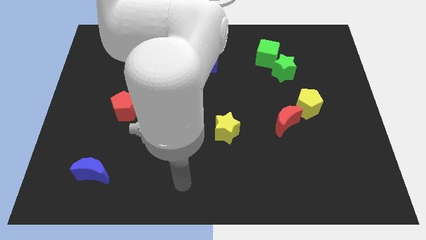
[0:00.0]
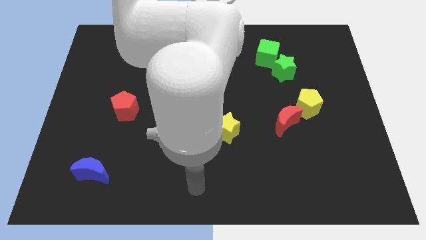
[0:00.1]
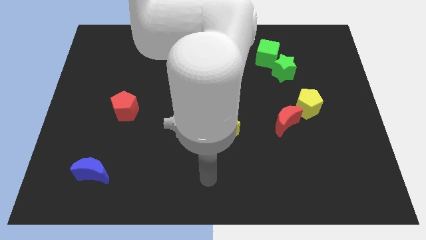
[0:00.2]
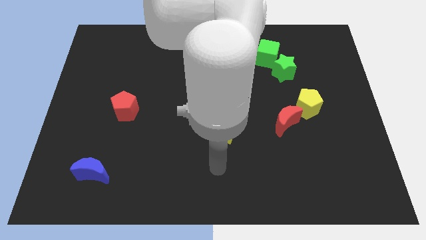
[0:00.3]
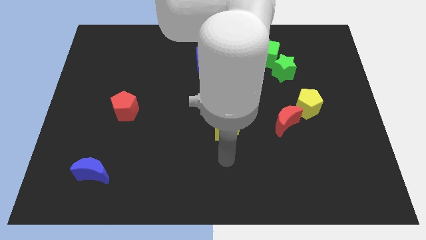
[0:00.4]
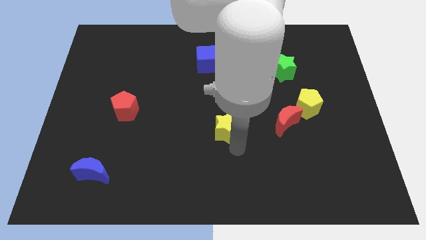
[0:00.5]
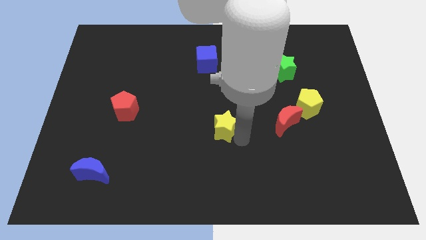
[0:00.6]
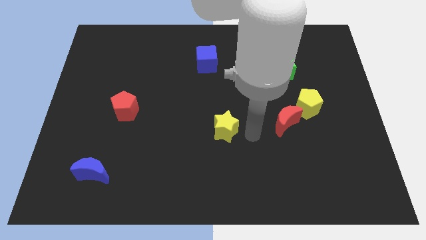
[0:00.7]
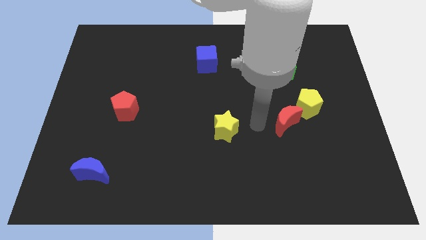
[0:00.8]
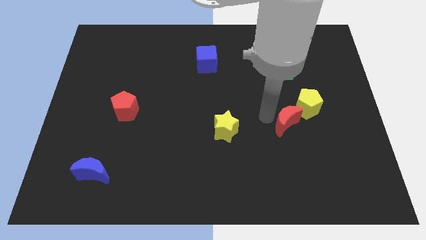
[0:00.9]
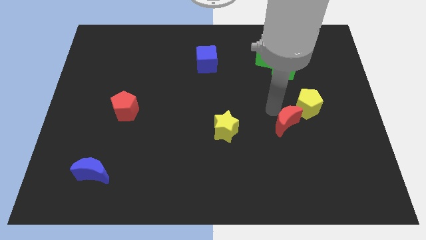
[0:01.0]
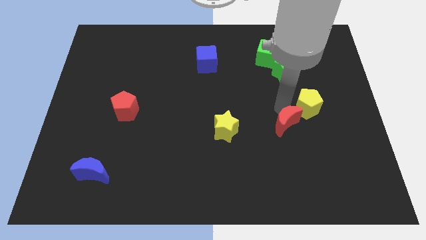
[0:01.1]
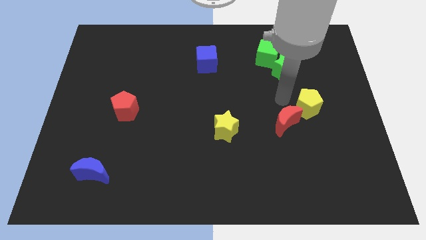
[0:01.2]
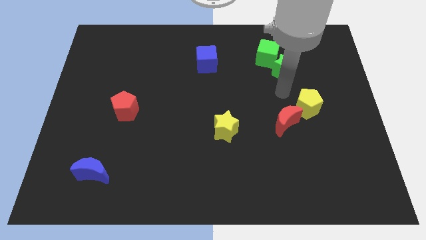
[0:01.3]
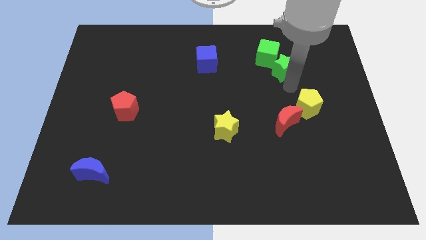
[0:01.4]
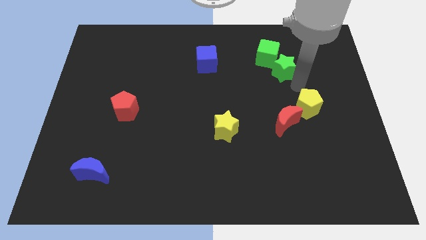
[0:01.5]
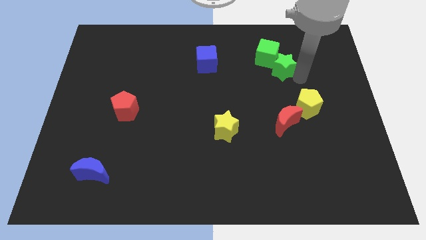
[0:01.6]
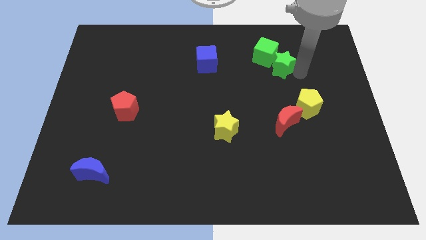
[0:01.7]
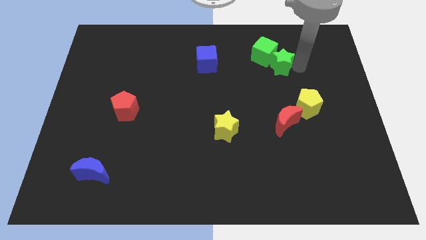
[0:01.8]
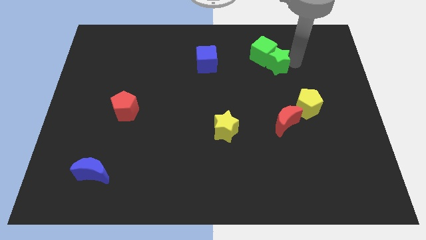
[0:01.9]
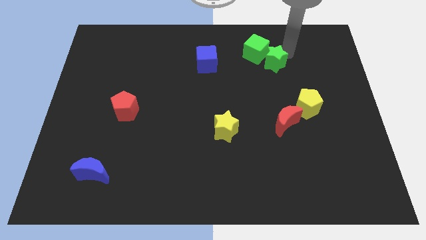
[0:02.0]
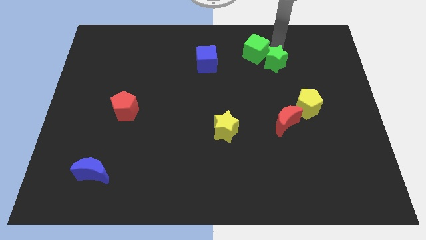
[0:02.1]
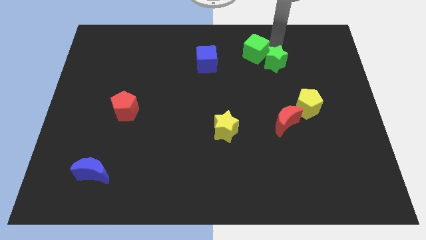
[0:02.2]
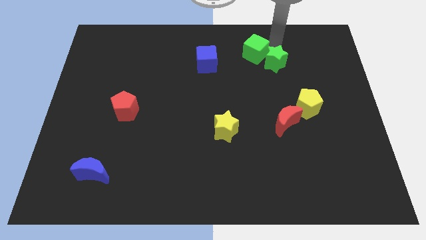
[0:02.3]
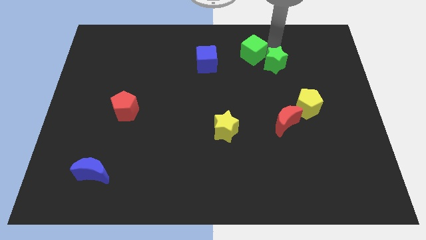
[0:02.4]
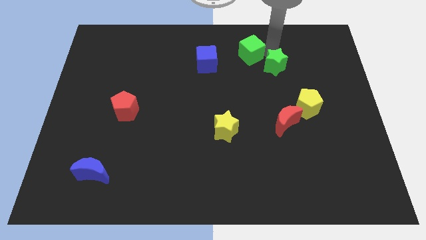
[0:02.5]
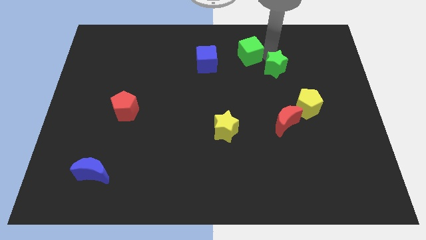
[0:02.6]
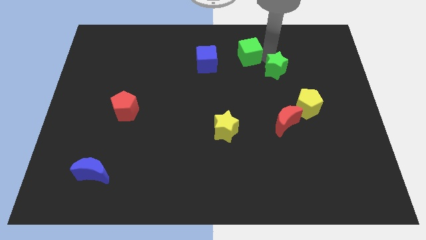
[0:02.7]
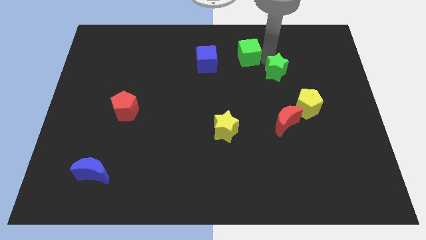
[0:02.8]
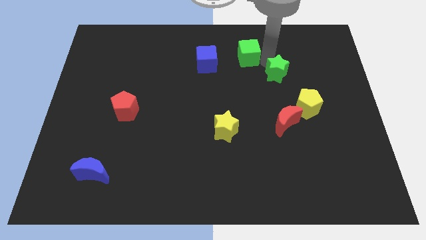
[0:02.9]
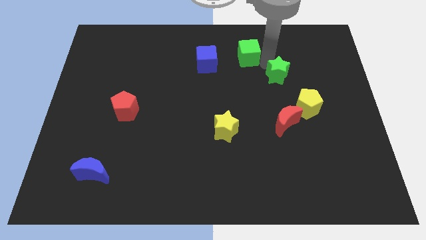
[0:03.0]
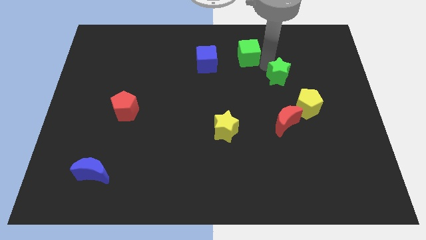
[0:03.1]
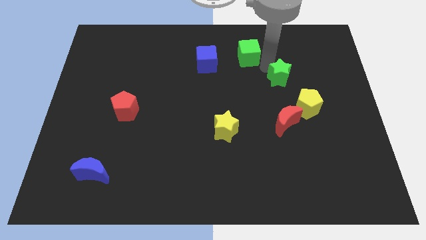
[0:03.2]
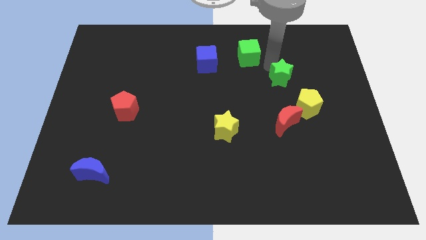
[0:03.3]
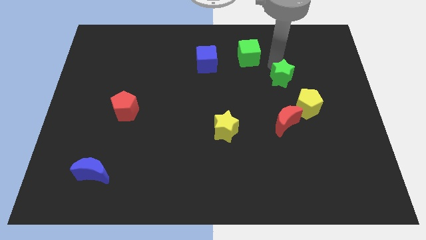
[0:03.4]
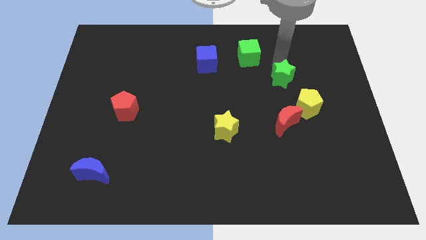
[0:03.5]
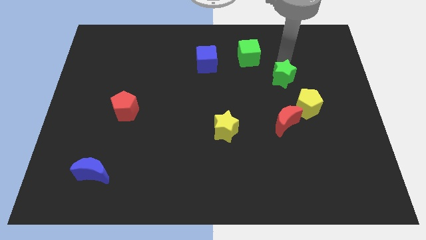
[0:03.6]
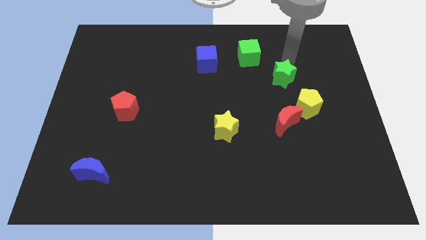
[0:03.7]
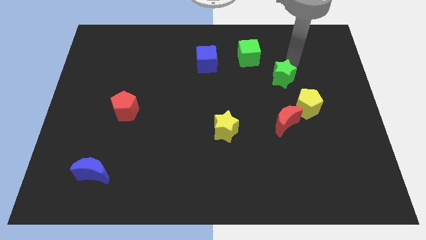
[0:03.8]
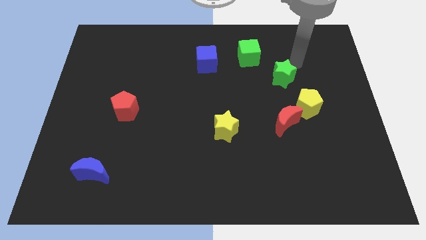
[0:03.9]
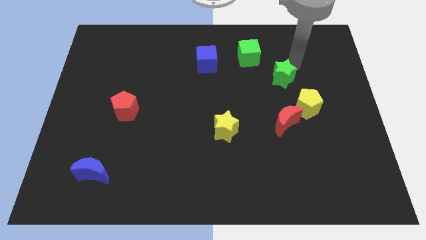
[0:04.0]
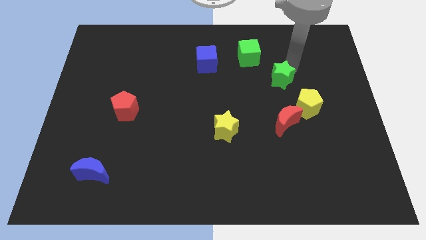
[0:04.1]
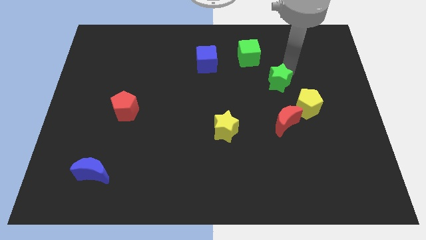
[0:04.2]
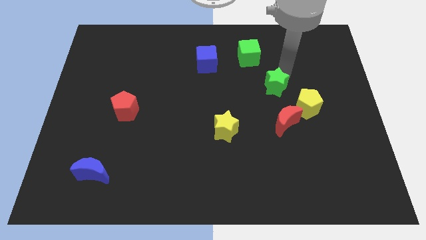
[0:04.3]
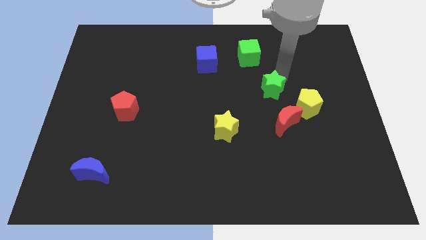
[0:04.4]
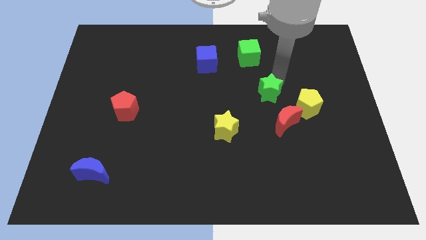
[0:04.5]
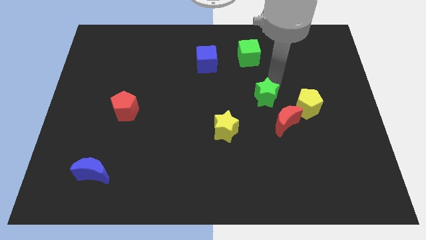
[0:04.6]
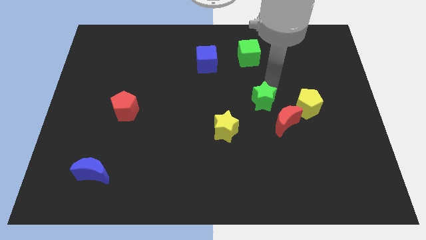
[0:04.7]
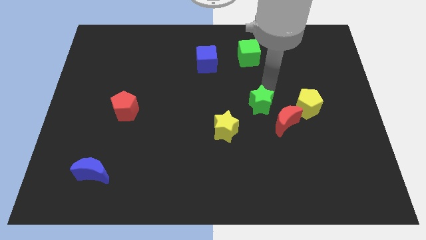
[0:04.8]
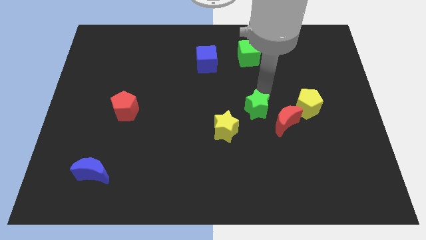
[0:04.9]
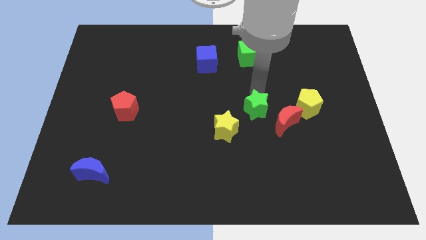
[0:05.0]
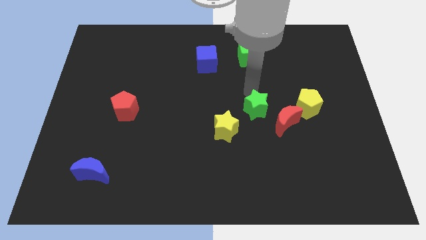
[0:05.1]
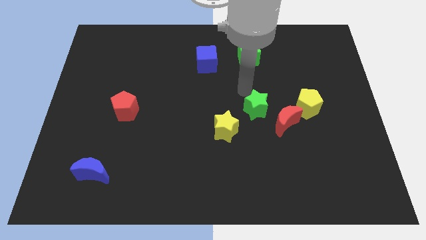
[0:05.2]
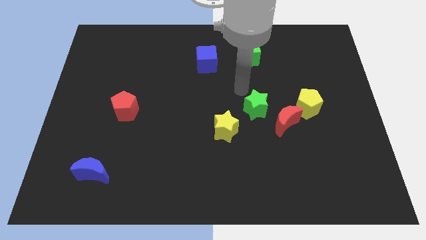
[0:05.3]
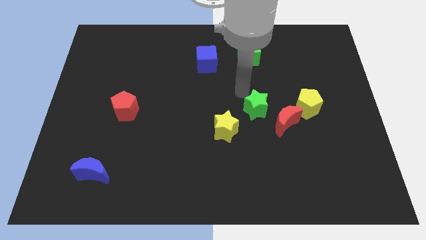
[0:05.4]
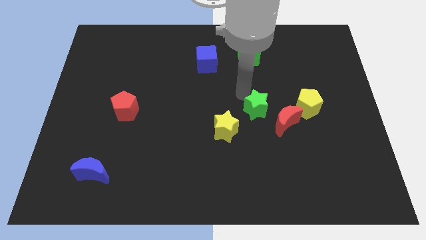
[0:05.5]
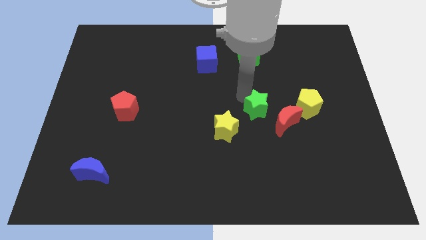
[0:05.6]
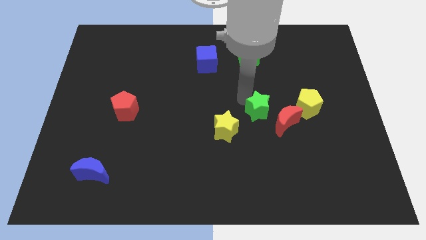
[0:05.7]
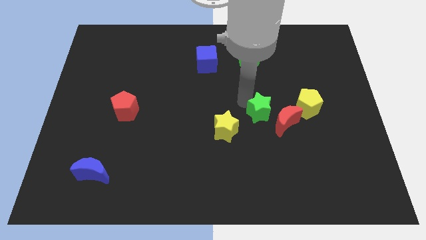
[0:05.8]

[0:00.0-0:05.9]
slide the green star right of the yellow star
